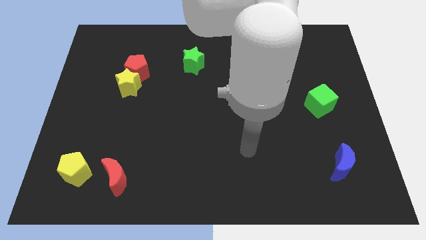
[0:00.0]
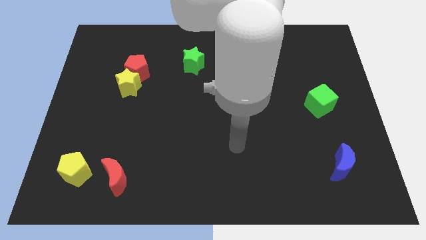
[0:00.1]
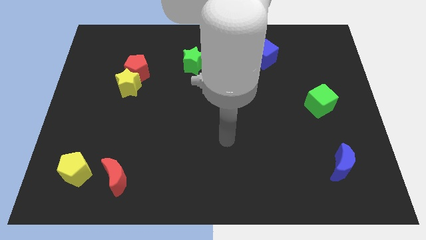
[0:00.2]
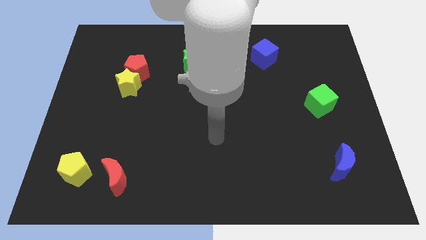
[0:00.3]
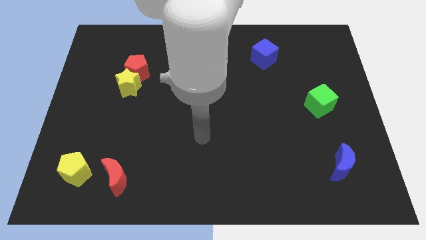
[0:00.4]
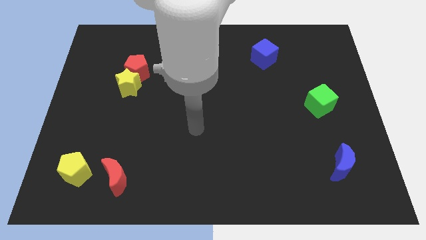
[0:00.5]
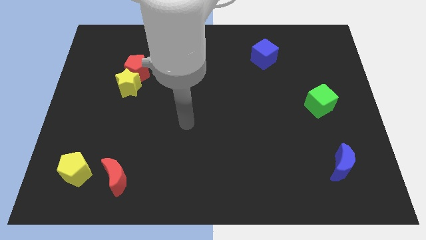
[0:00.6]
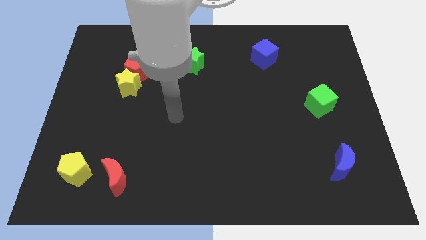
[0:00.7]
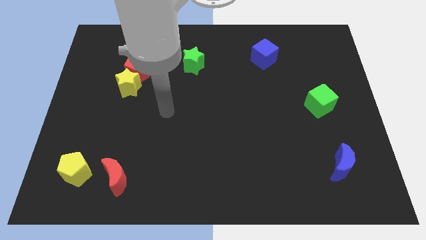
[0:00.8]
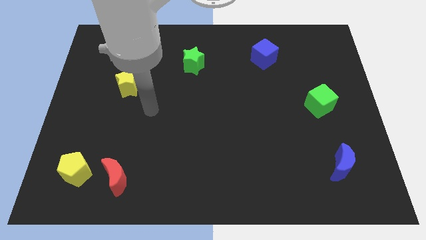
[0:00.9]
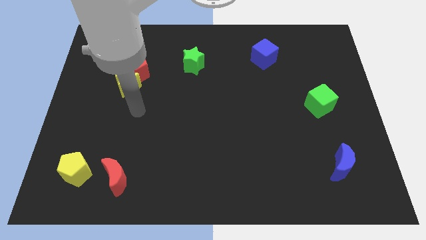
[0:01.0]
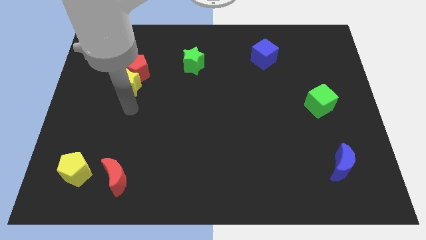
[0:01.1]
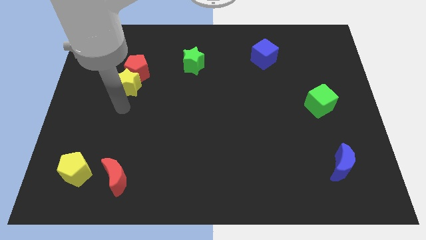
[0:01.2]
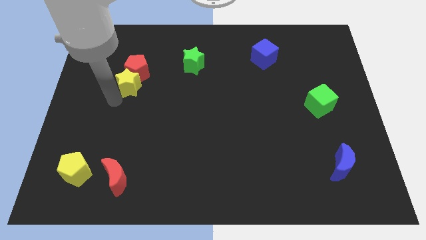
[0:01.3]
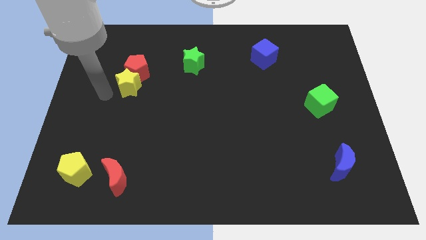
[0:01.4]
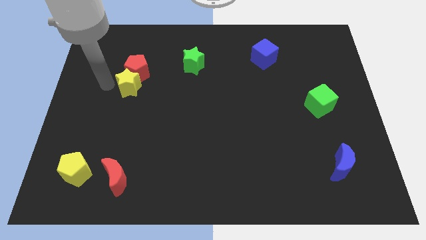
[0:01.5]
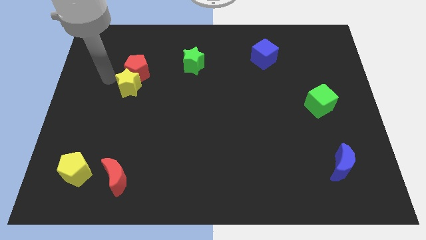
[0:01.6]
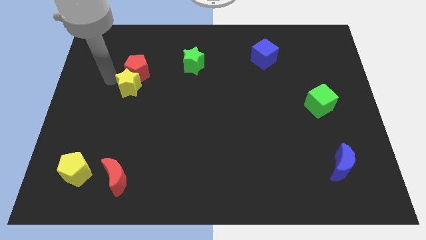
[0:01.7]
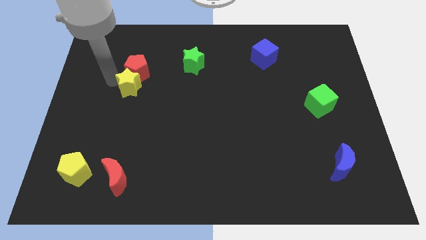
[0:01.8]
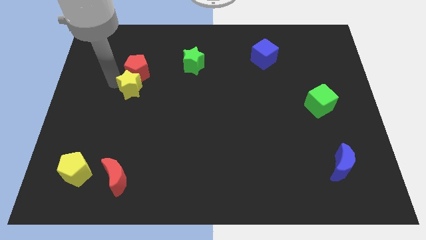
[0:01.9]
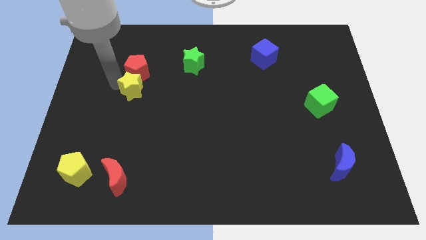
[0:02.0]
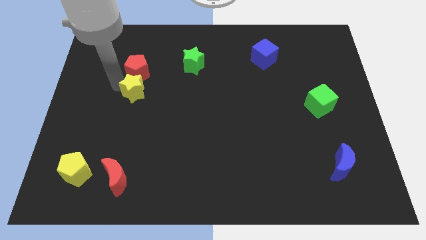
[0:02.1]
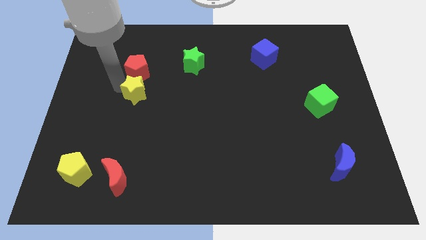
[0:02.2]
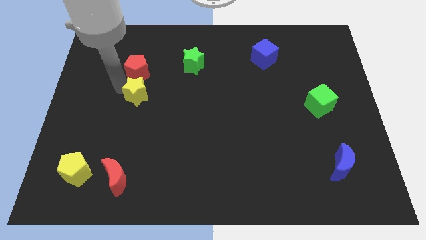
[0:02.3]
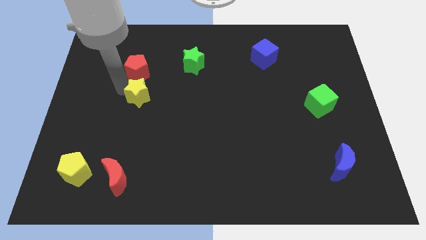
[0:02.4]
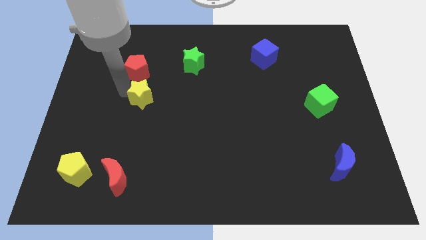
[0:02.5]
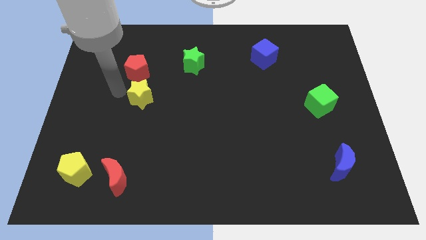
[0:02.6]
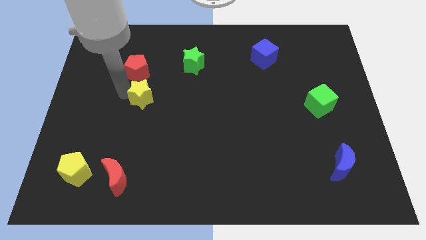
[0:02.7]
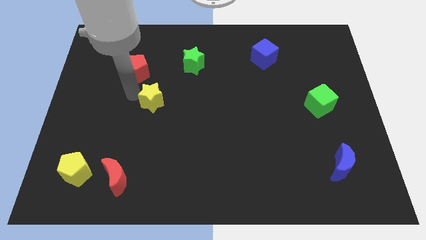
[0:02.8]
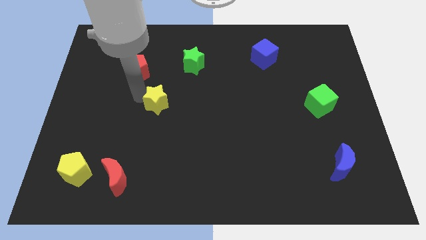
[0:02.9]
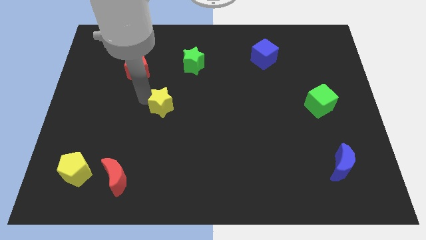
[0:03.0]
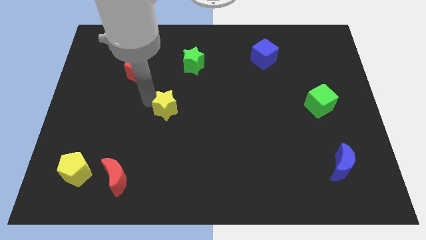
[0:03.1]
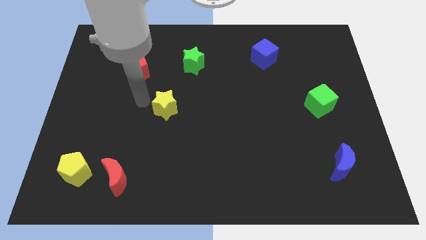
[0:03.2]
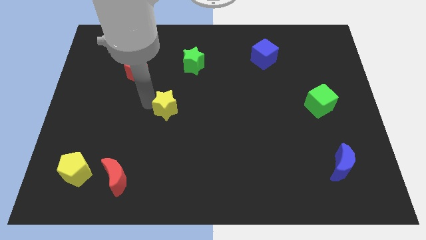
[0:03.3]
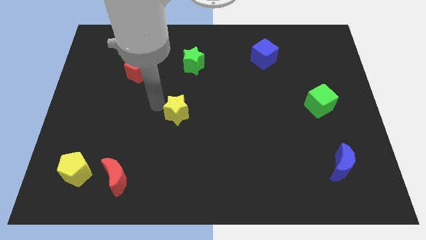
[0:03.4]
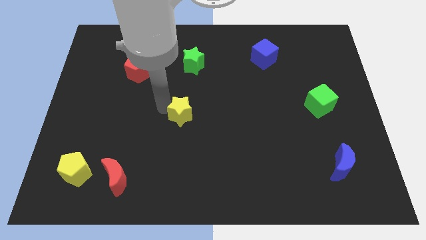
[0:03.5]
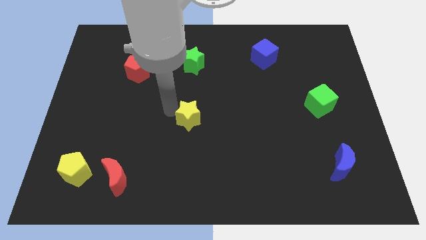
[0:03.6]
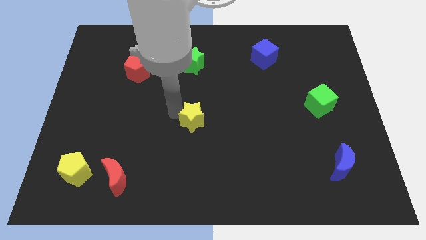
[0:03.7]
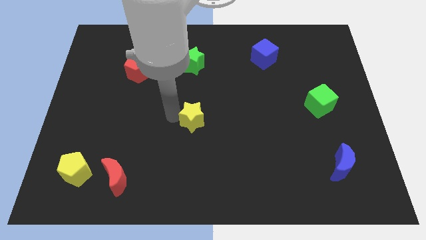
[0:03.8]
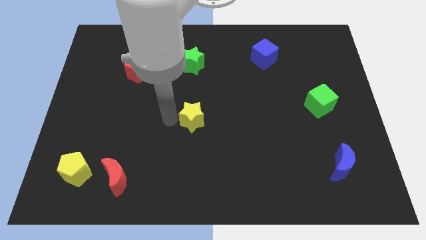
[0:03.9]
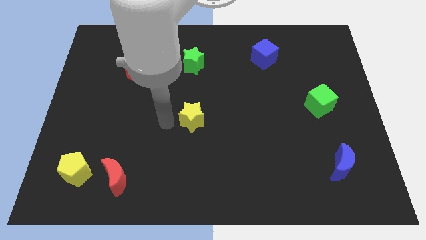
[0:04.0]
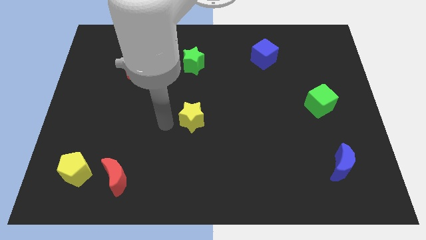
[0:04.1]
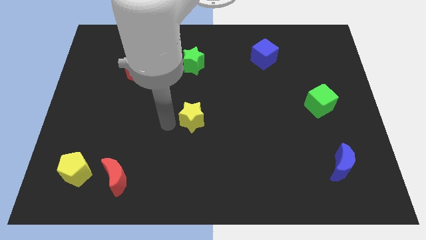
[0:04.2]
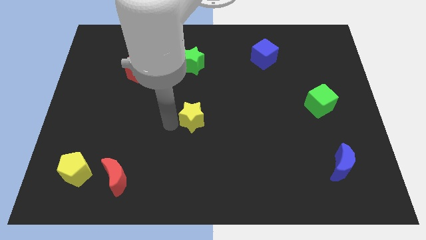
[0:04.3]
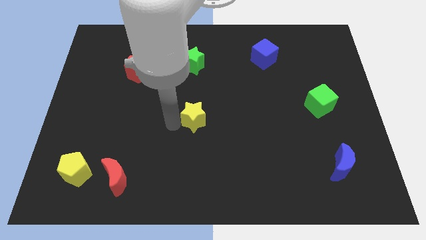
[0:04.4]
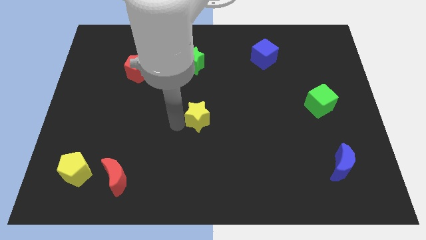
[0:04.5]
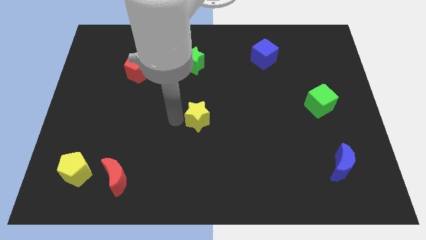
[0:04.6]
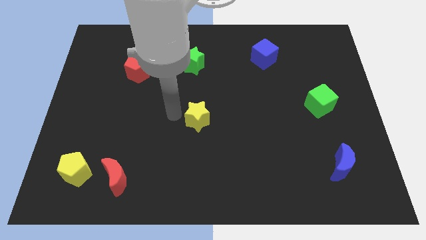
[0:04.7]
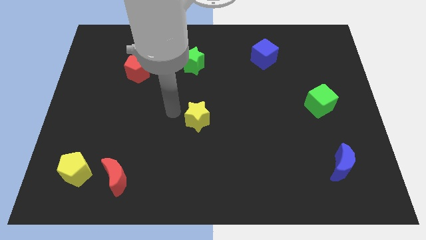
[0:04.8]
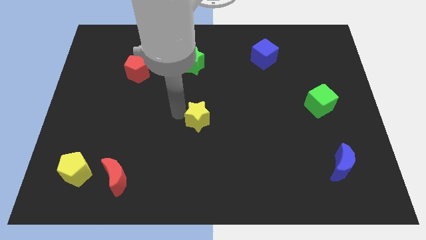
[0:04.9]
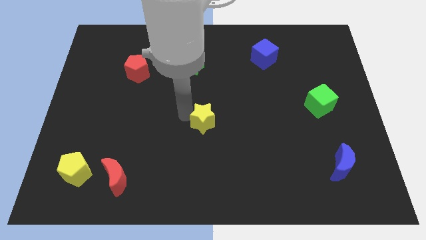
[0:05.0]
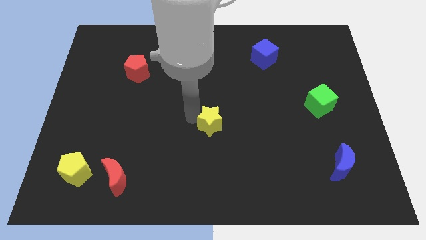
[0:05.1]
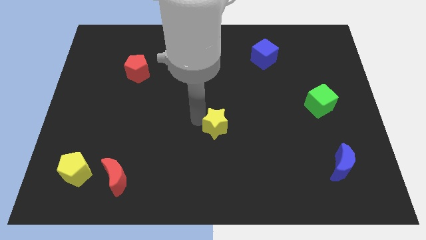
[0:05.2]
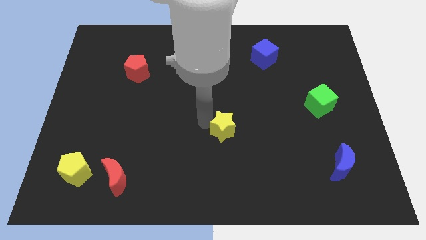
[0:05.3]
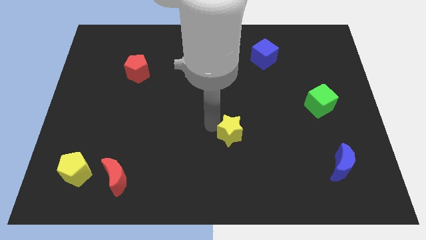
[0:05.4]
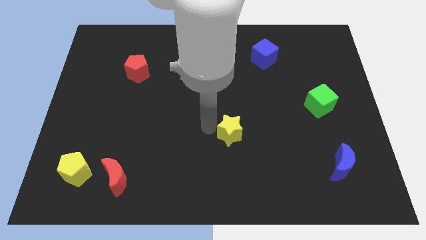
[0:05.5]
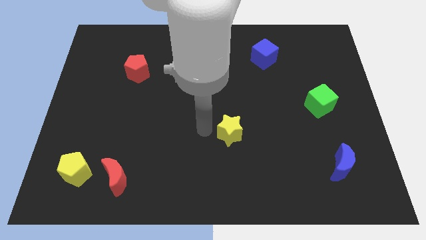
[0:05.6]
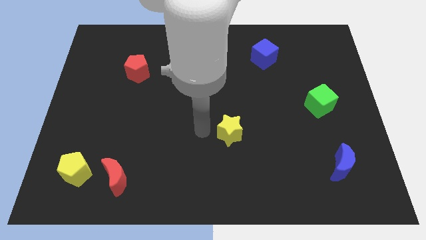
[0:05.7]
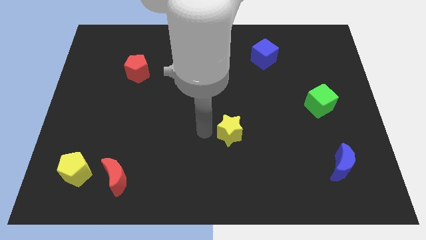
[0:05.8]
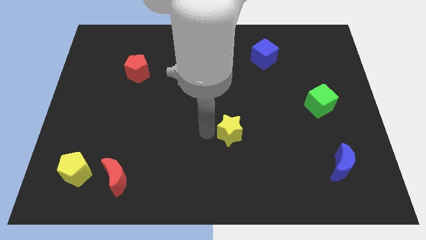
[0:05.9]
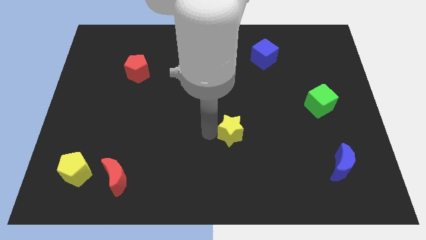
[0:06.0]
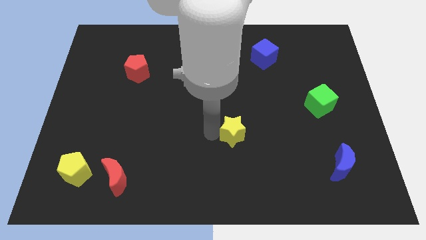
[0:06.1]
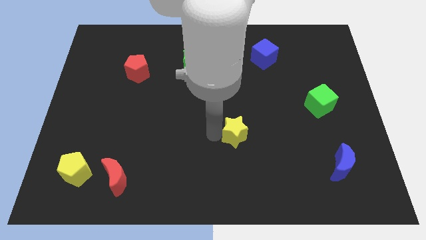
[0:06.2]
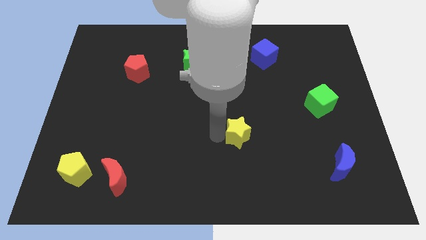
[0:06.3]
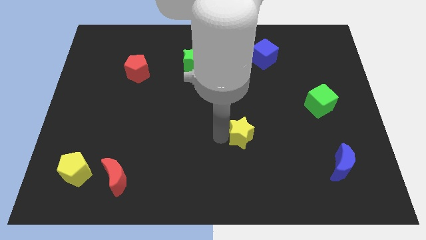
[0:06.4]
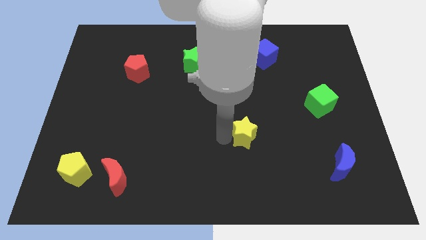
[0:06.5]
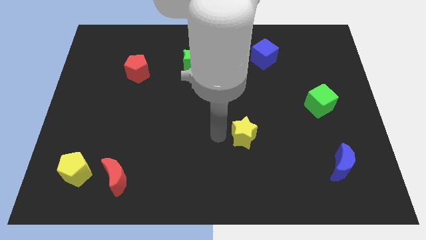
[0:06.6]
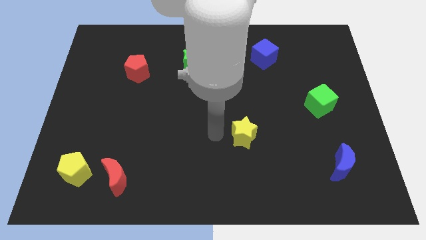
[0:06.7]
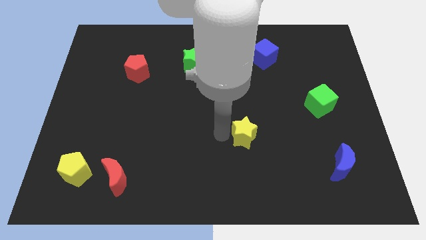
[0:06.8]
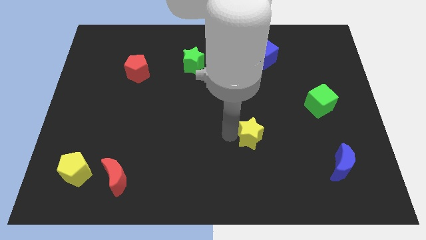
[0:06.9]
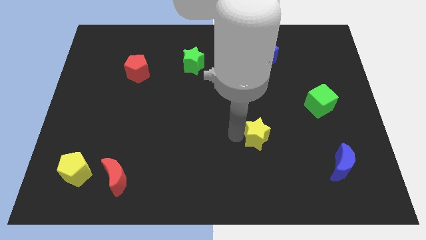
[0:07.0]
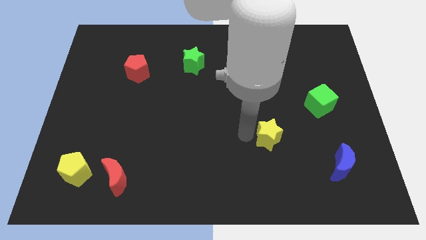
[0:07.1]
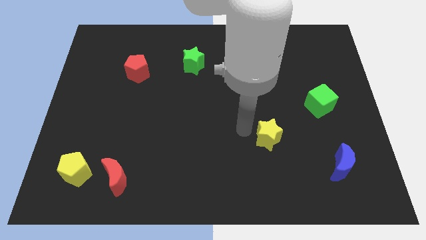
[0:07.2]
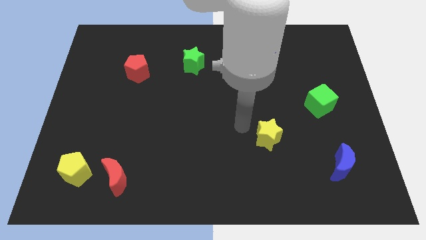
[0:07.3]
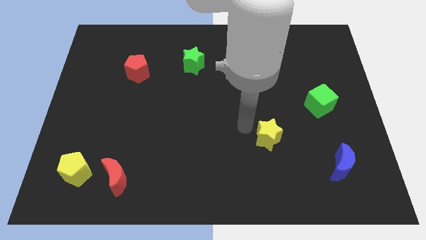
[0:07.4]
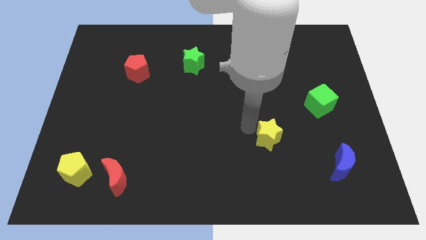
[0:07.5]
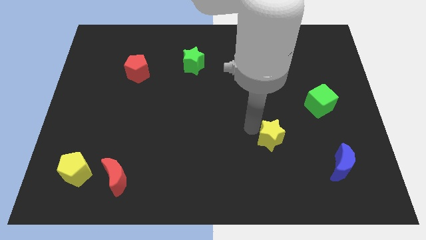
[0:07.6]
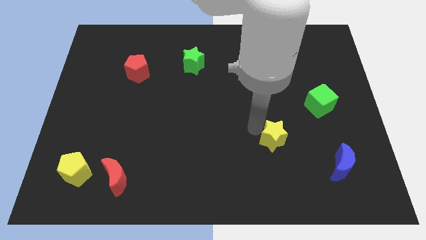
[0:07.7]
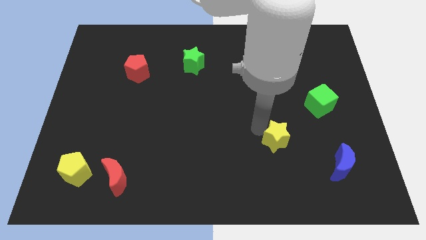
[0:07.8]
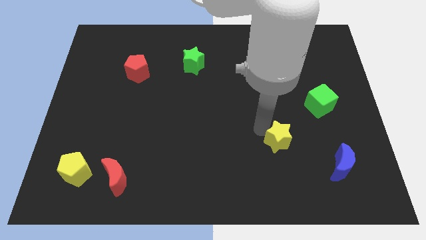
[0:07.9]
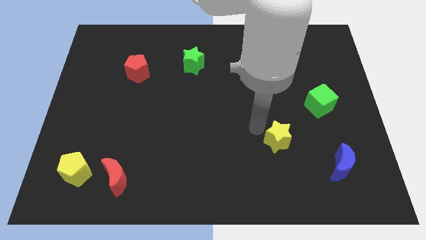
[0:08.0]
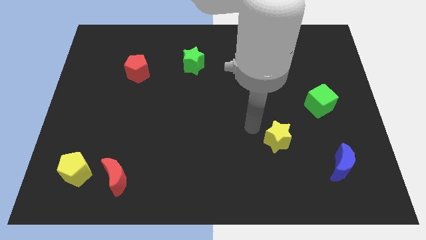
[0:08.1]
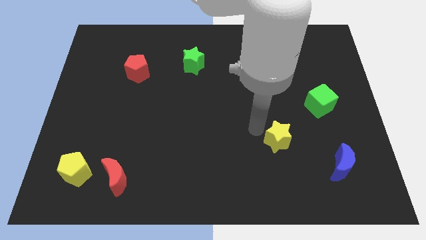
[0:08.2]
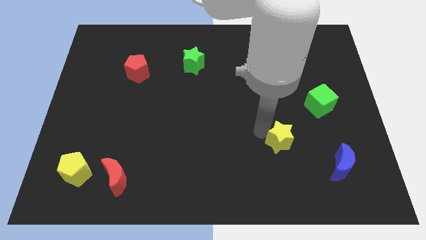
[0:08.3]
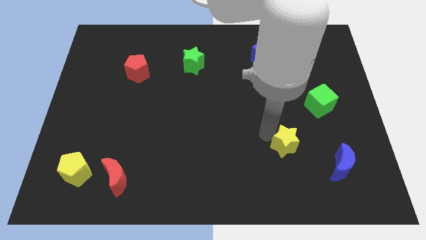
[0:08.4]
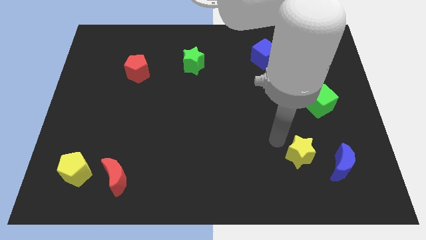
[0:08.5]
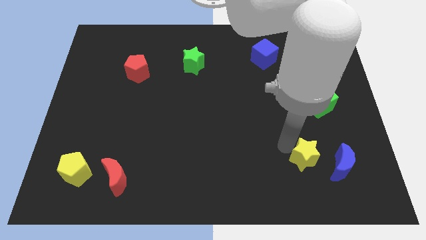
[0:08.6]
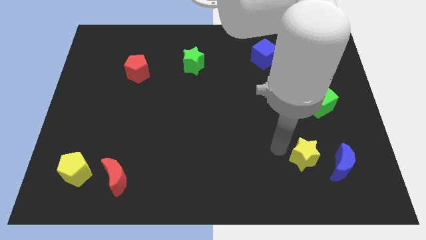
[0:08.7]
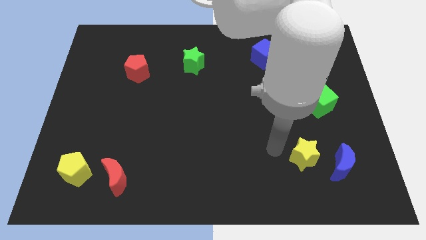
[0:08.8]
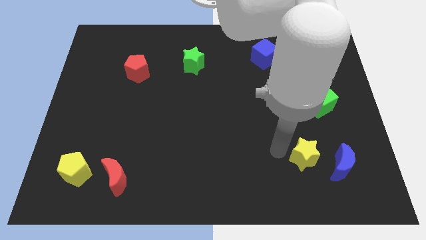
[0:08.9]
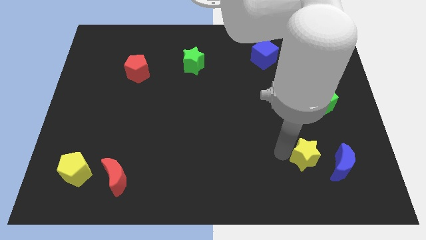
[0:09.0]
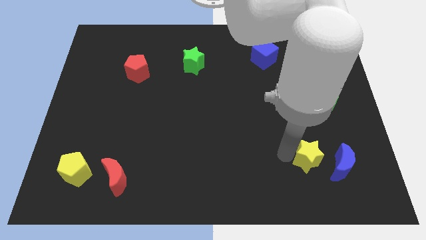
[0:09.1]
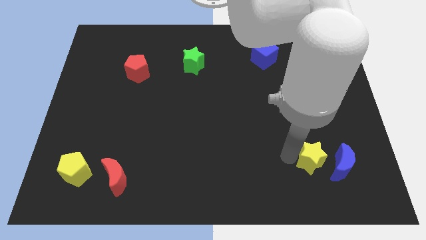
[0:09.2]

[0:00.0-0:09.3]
move the yellow star to the blue moon
